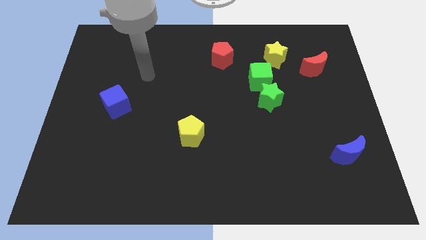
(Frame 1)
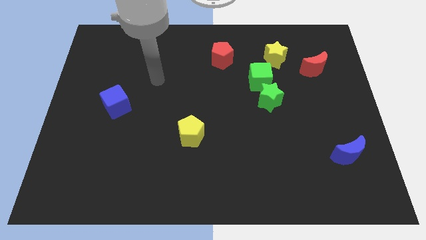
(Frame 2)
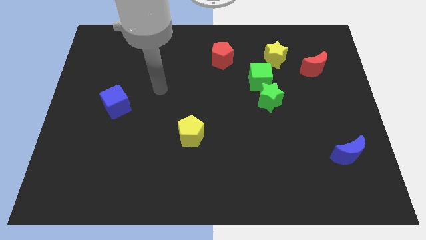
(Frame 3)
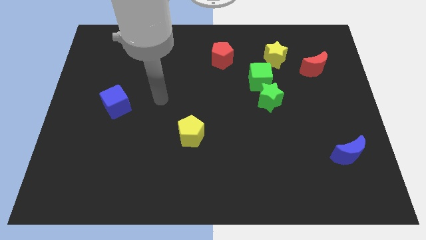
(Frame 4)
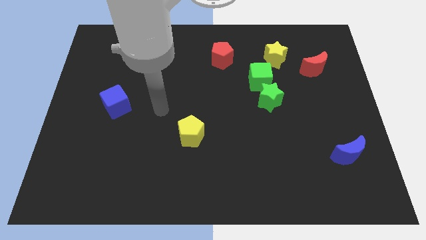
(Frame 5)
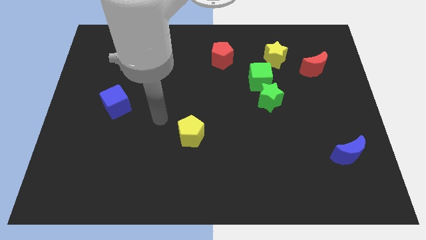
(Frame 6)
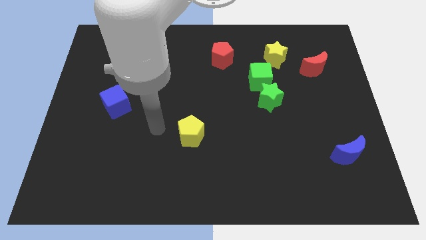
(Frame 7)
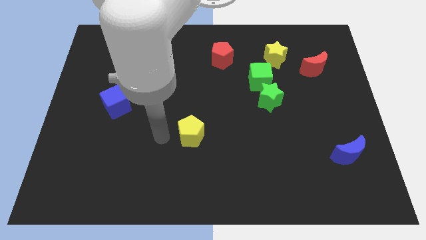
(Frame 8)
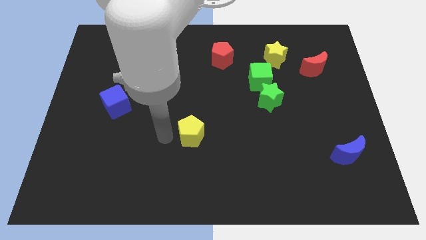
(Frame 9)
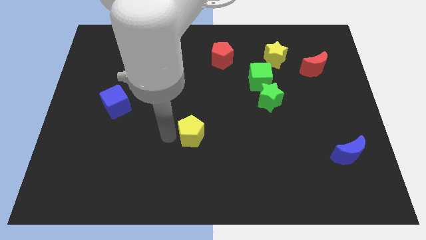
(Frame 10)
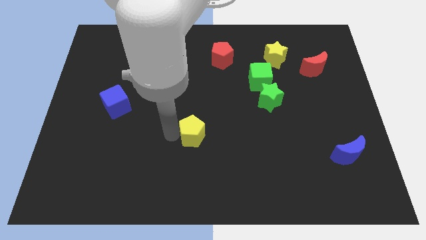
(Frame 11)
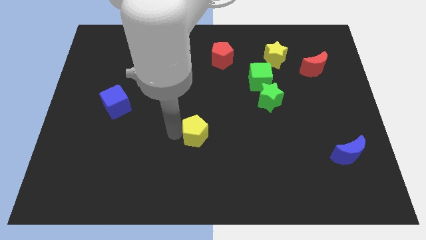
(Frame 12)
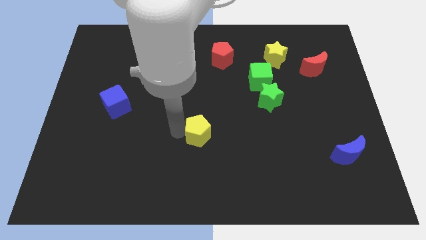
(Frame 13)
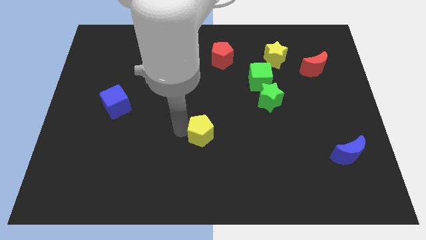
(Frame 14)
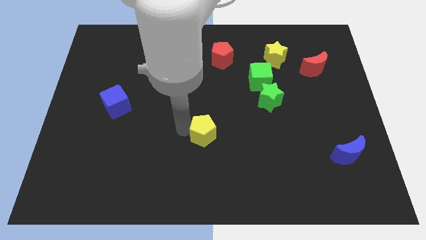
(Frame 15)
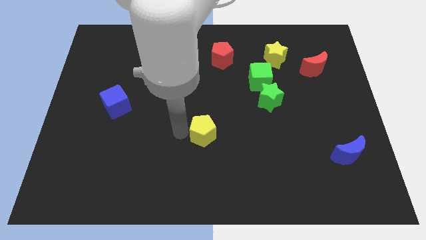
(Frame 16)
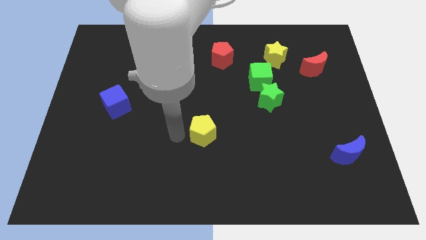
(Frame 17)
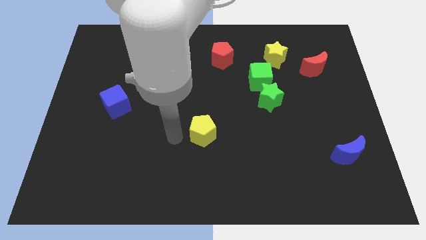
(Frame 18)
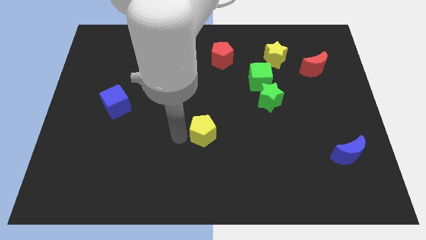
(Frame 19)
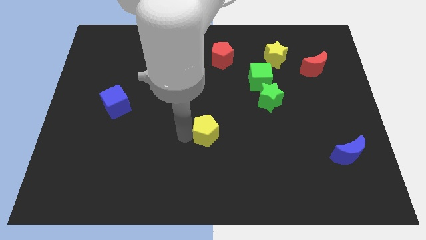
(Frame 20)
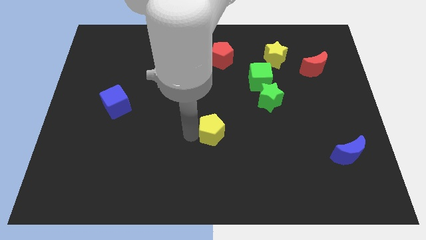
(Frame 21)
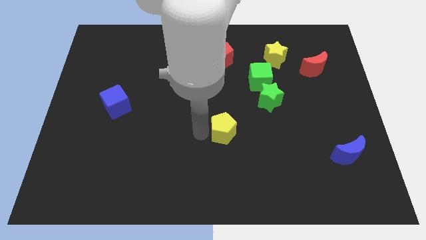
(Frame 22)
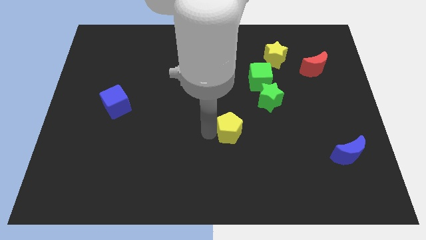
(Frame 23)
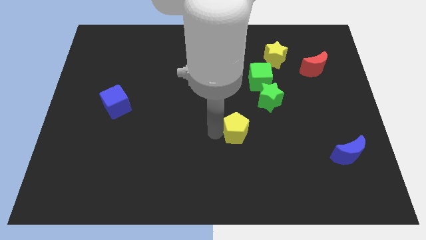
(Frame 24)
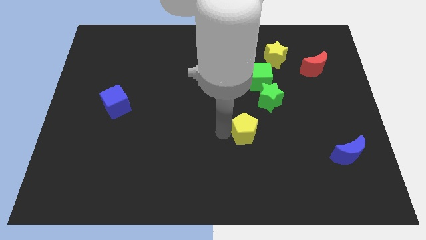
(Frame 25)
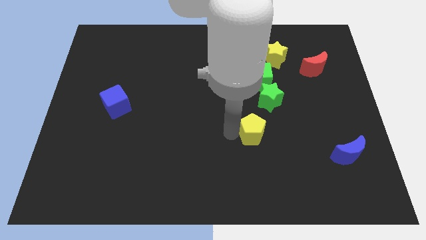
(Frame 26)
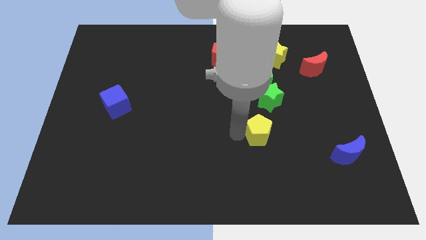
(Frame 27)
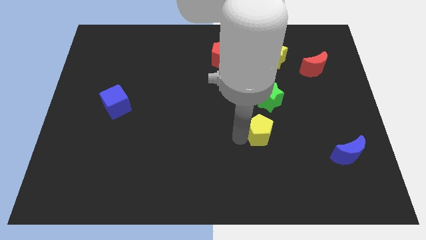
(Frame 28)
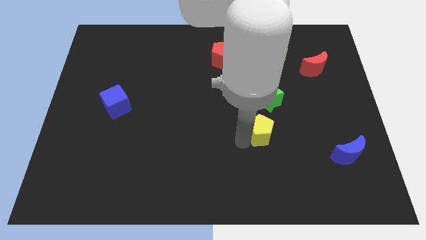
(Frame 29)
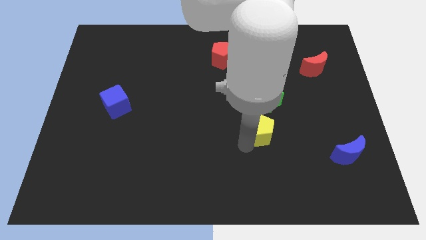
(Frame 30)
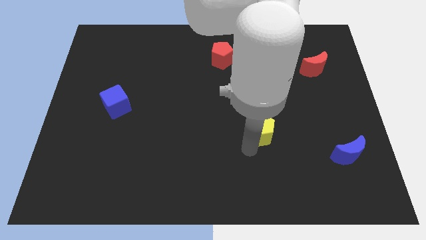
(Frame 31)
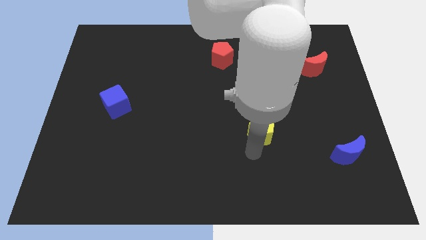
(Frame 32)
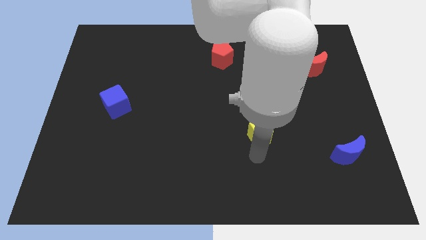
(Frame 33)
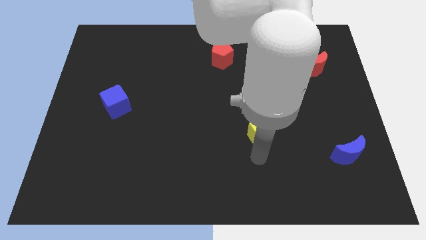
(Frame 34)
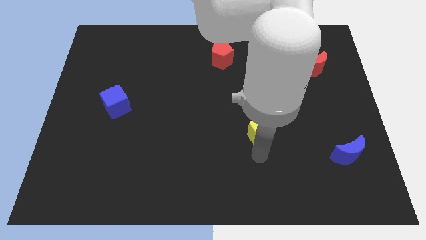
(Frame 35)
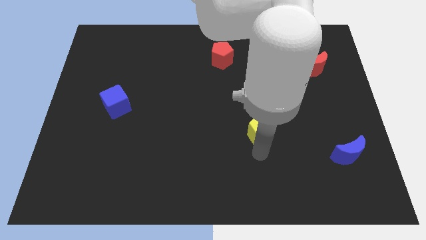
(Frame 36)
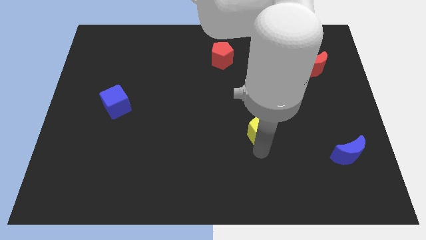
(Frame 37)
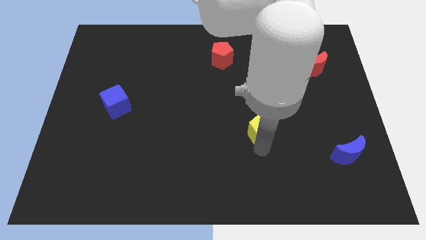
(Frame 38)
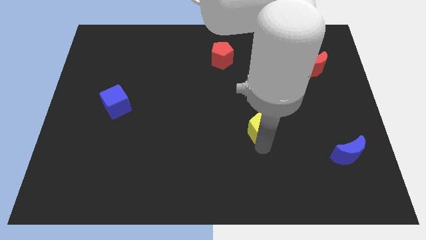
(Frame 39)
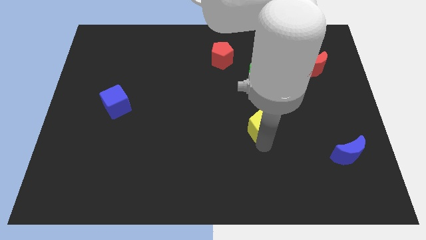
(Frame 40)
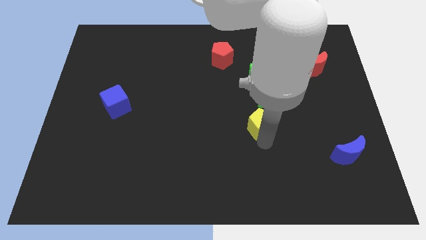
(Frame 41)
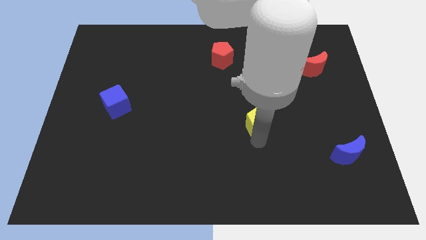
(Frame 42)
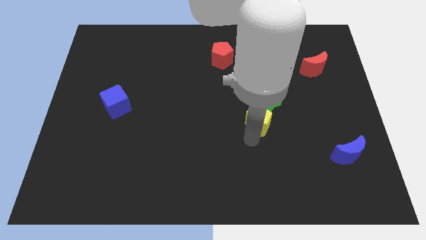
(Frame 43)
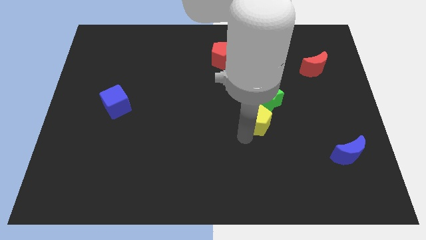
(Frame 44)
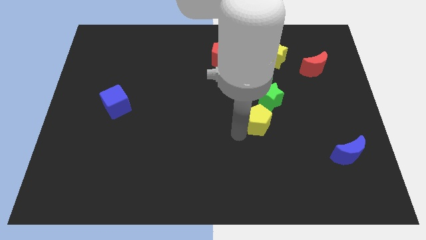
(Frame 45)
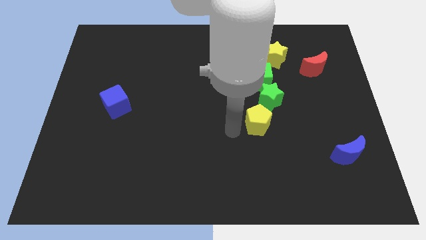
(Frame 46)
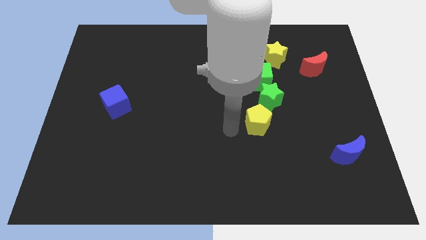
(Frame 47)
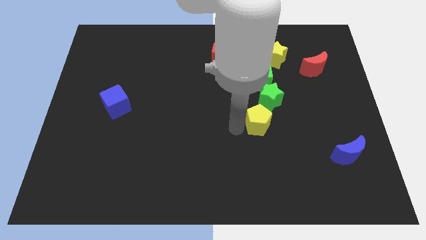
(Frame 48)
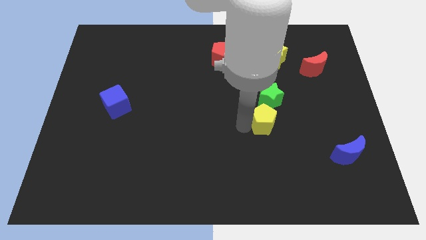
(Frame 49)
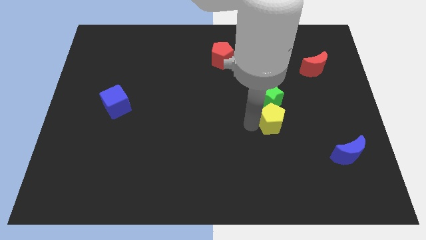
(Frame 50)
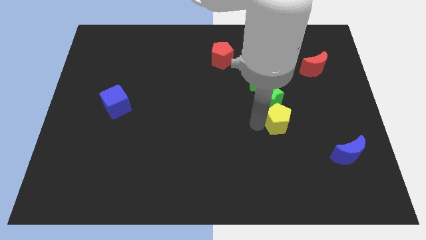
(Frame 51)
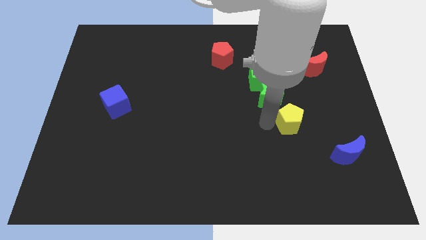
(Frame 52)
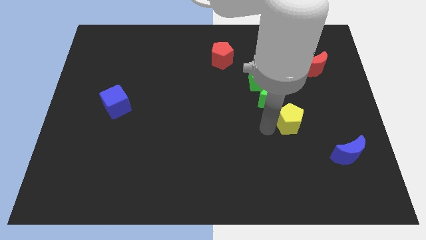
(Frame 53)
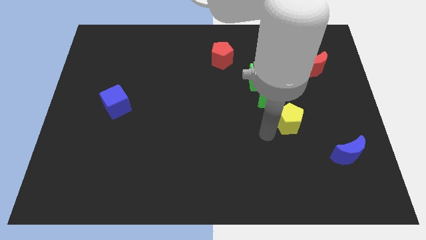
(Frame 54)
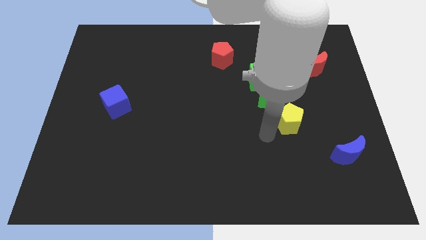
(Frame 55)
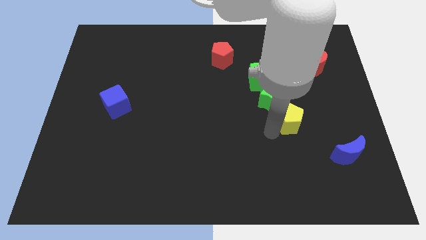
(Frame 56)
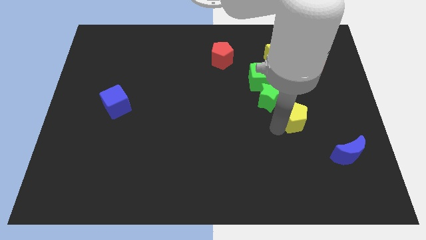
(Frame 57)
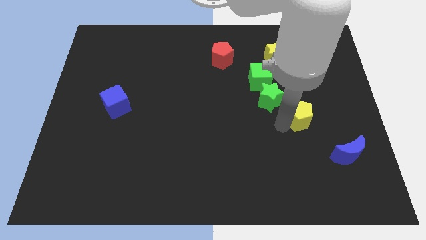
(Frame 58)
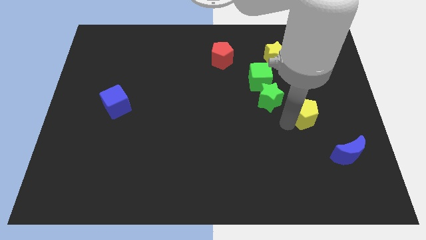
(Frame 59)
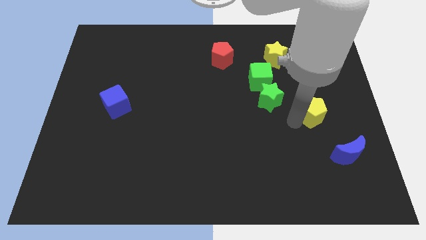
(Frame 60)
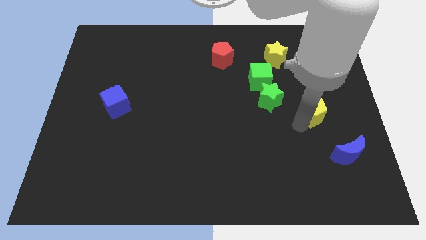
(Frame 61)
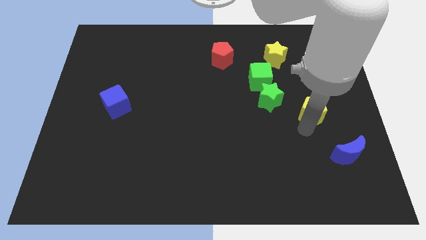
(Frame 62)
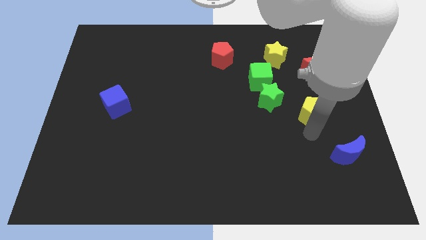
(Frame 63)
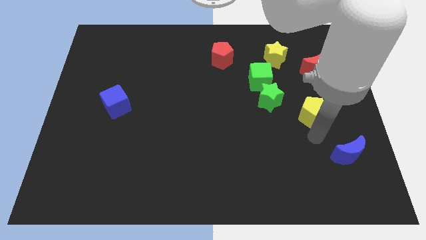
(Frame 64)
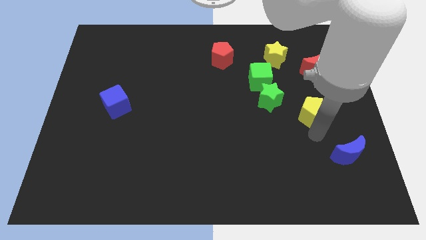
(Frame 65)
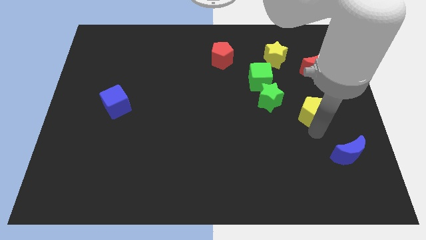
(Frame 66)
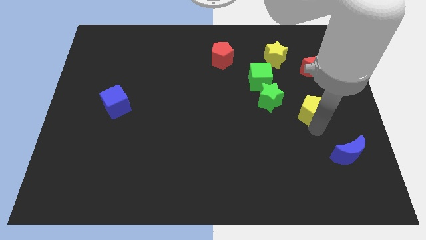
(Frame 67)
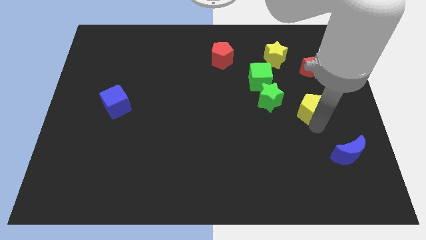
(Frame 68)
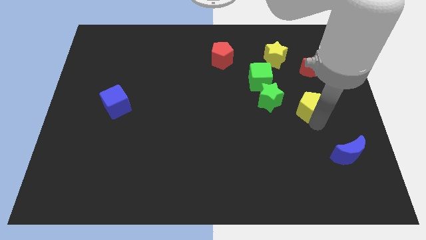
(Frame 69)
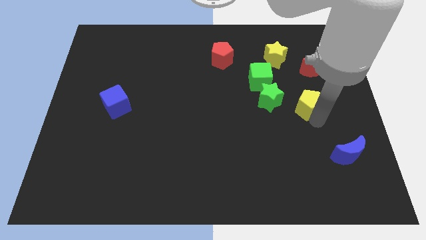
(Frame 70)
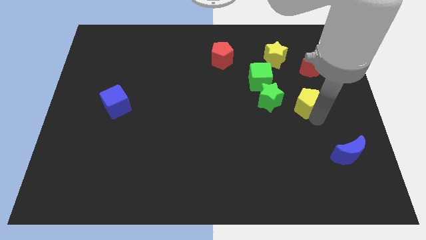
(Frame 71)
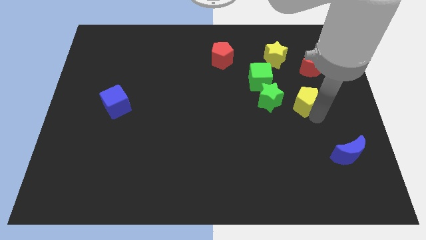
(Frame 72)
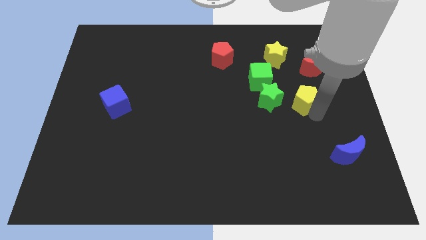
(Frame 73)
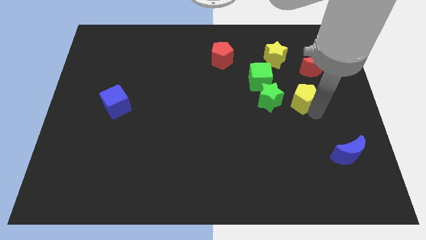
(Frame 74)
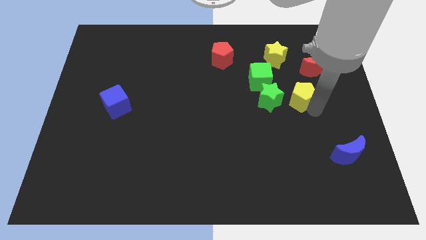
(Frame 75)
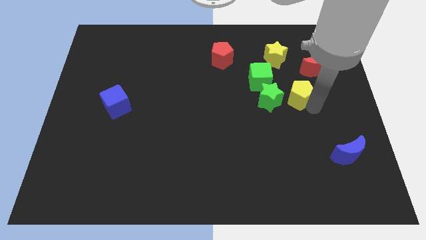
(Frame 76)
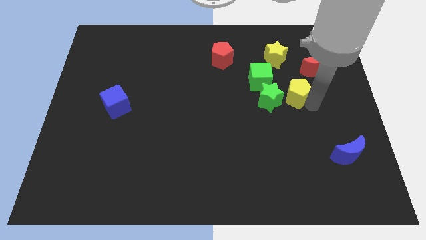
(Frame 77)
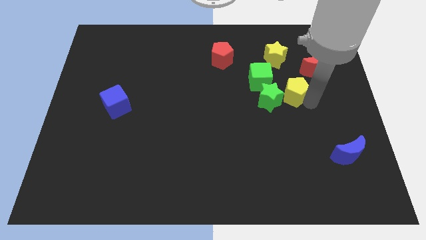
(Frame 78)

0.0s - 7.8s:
move the yellow pentagon just right of the green cube
